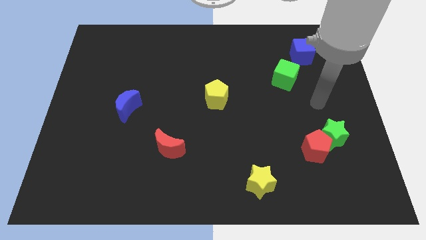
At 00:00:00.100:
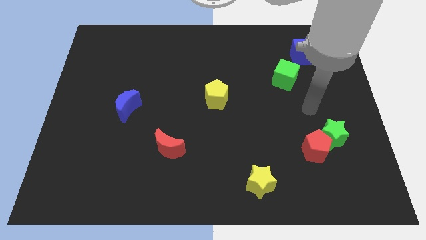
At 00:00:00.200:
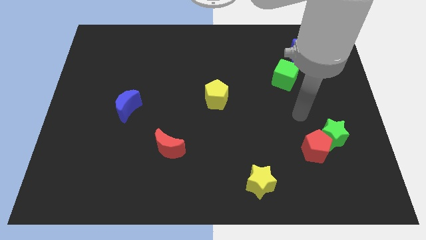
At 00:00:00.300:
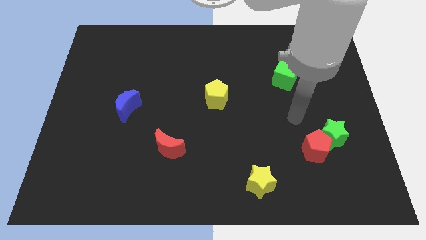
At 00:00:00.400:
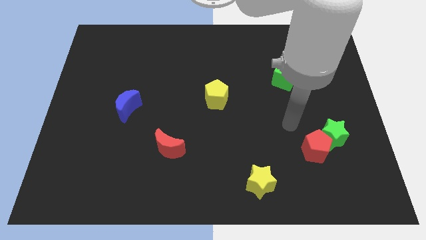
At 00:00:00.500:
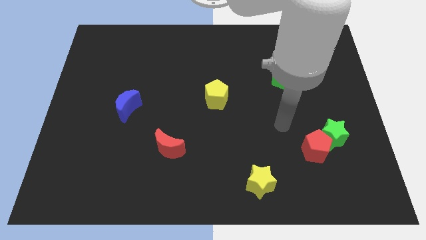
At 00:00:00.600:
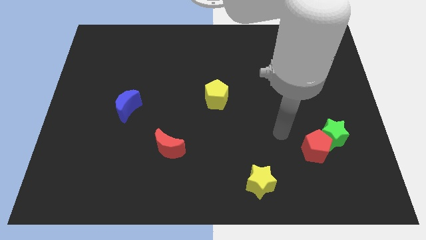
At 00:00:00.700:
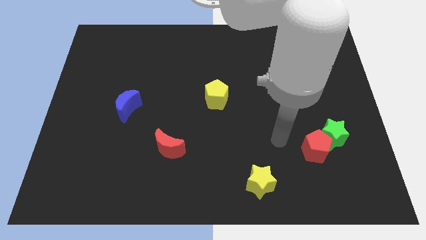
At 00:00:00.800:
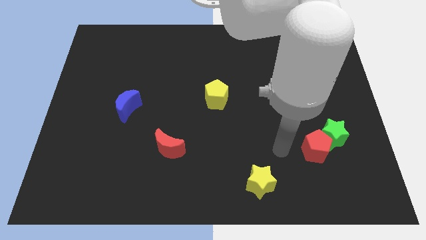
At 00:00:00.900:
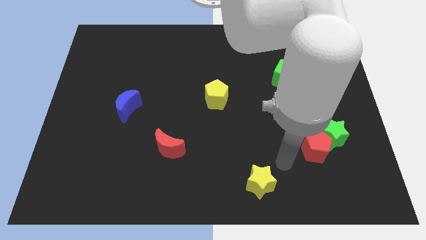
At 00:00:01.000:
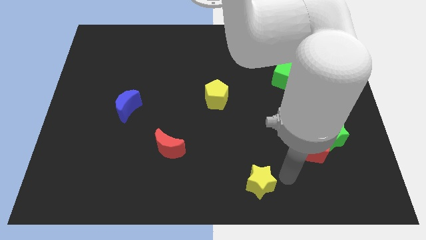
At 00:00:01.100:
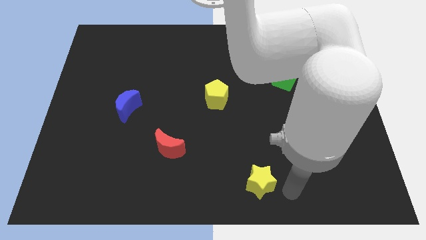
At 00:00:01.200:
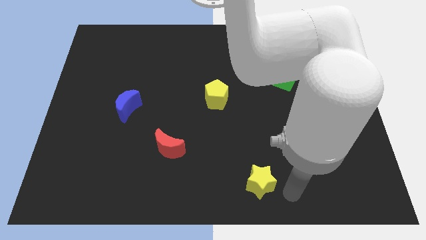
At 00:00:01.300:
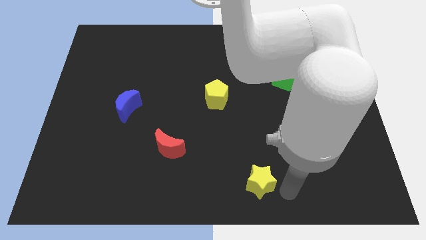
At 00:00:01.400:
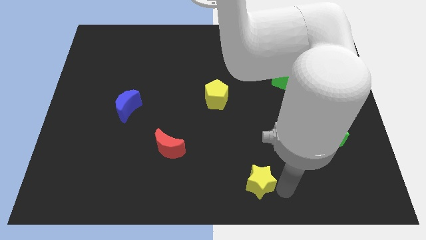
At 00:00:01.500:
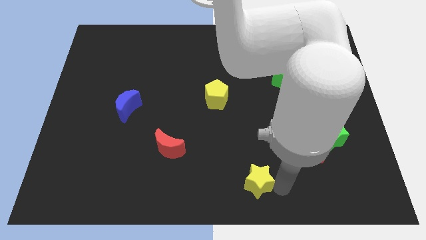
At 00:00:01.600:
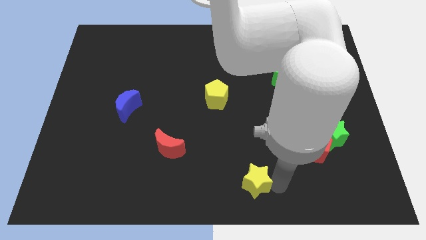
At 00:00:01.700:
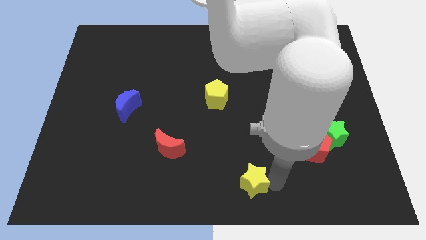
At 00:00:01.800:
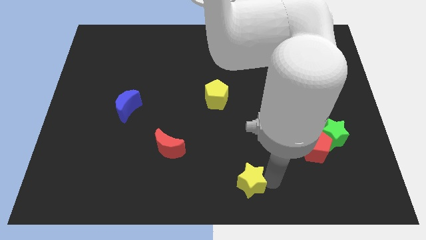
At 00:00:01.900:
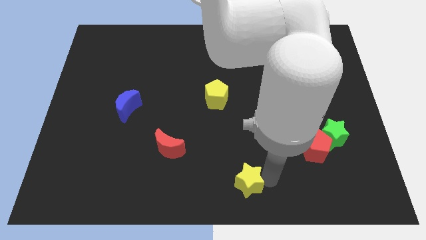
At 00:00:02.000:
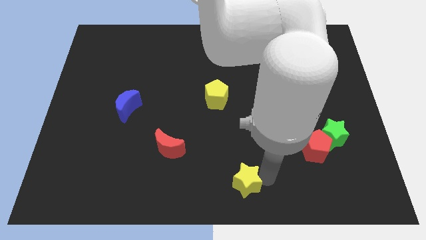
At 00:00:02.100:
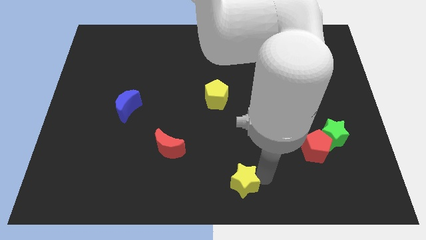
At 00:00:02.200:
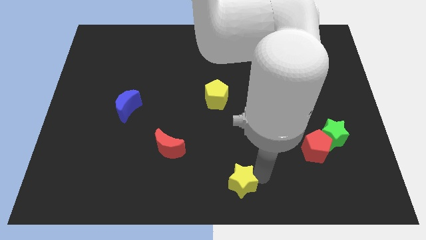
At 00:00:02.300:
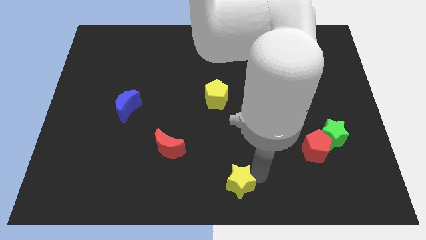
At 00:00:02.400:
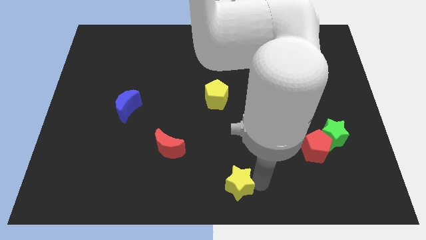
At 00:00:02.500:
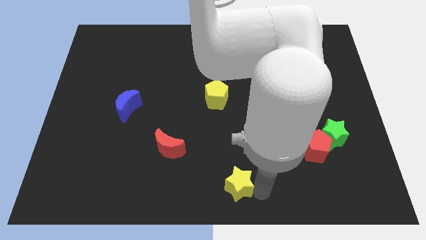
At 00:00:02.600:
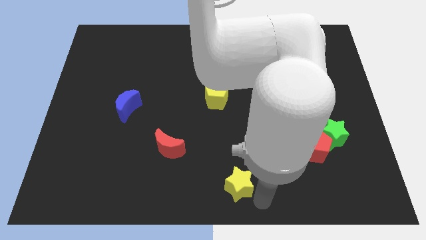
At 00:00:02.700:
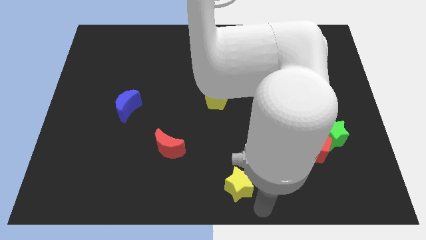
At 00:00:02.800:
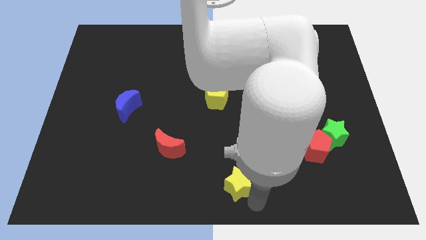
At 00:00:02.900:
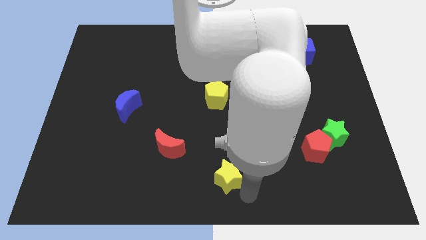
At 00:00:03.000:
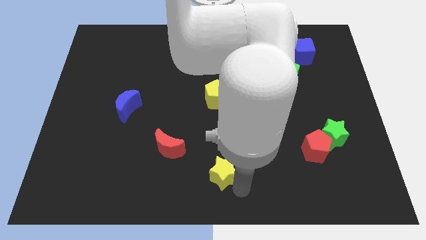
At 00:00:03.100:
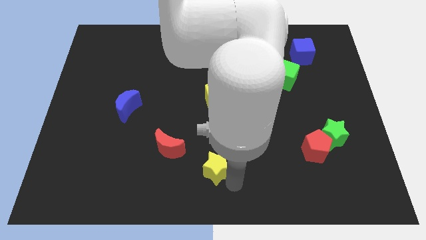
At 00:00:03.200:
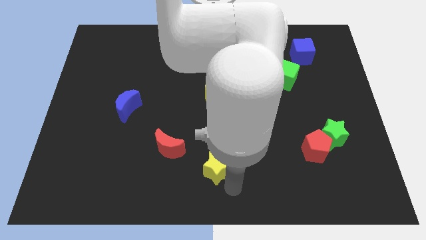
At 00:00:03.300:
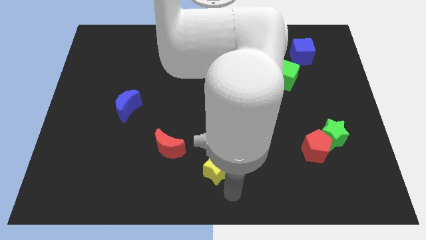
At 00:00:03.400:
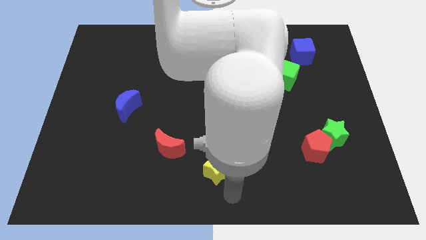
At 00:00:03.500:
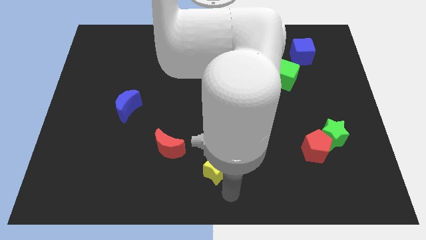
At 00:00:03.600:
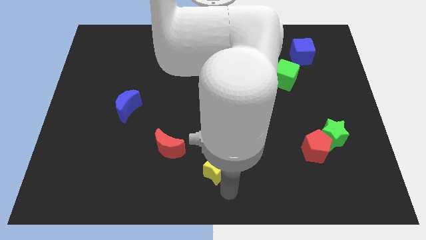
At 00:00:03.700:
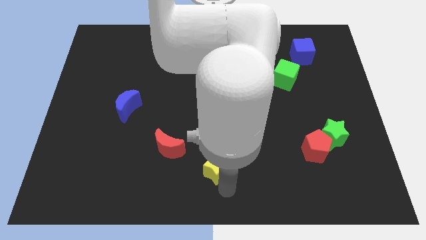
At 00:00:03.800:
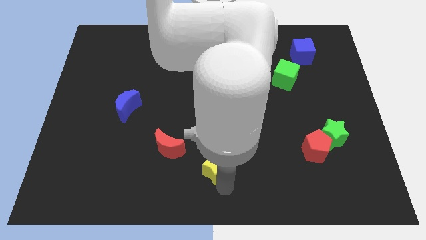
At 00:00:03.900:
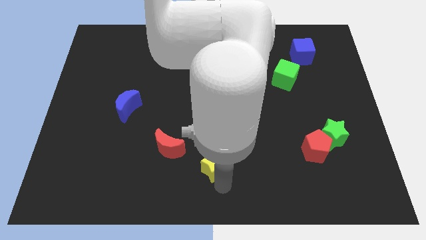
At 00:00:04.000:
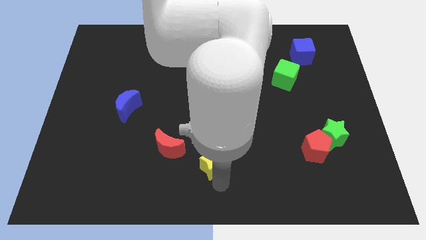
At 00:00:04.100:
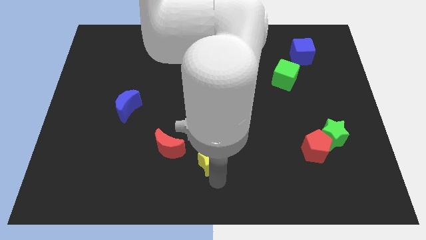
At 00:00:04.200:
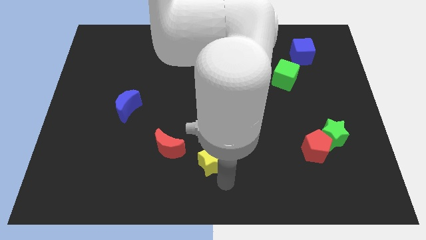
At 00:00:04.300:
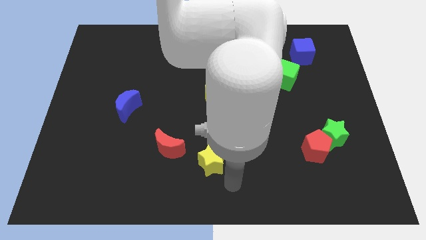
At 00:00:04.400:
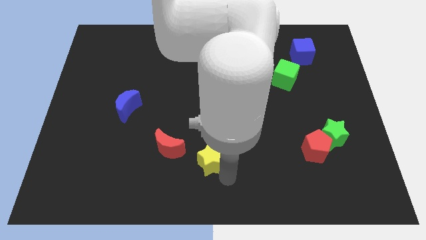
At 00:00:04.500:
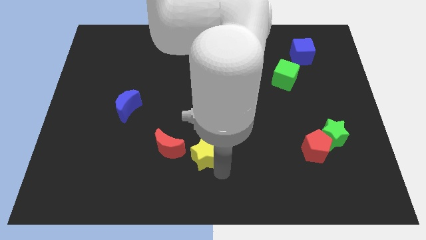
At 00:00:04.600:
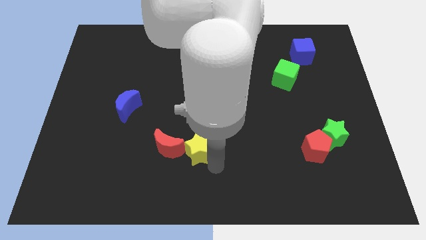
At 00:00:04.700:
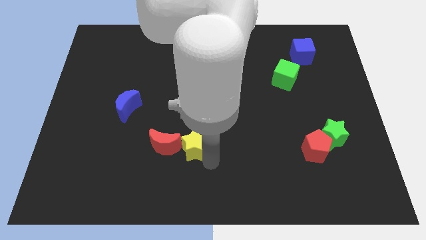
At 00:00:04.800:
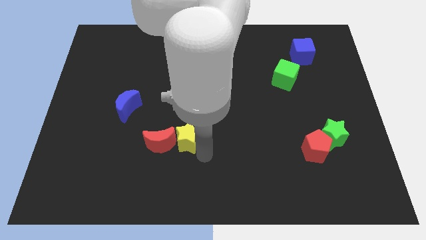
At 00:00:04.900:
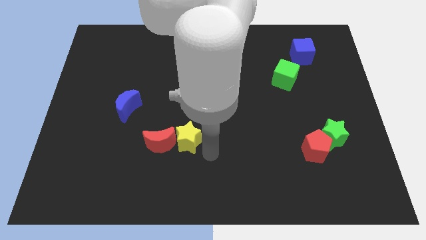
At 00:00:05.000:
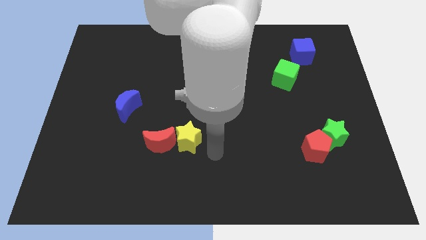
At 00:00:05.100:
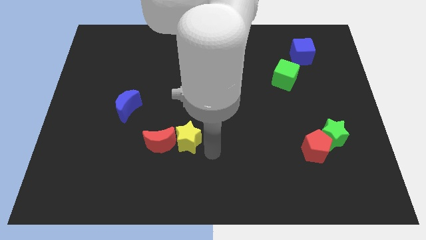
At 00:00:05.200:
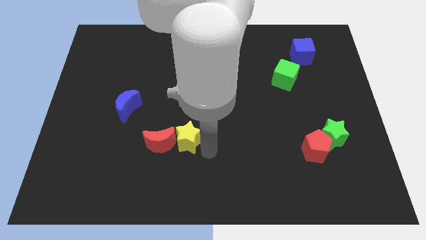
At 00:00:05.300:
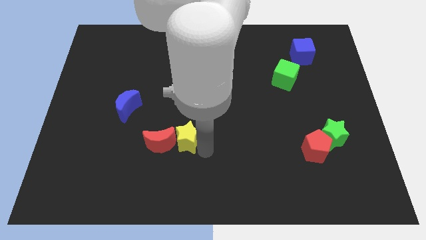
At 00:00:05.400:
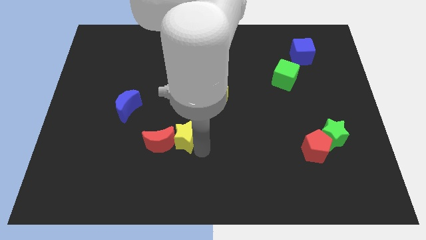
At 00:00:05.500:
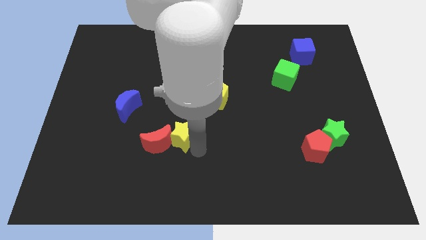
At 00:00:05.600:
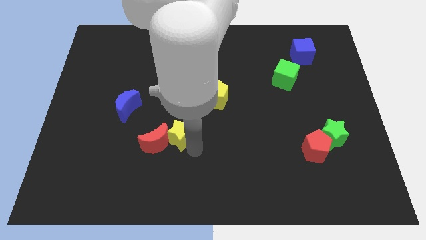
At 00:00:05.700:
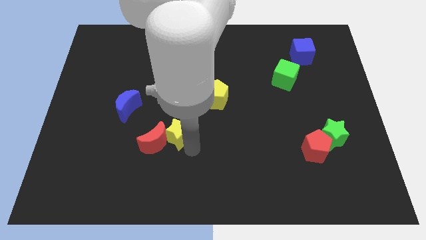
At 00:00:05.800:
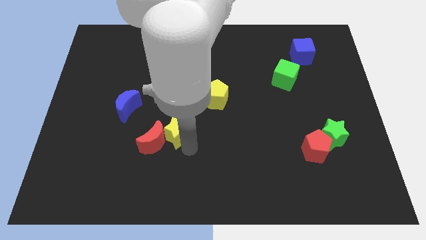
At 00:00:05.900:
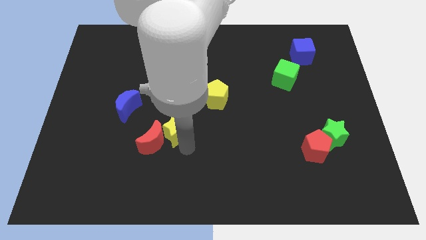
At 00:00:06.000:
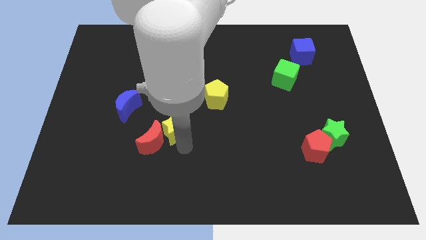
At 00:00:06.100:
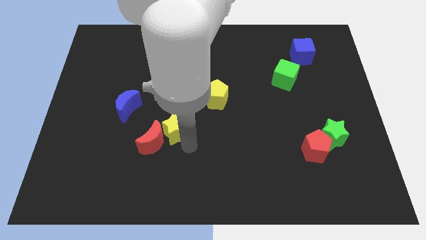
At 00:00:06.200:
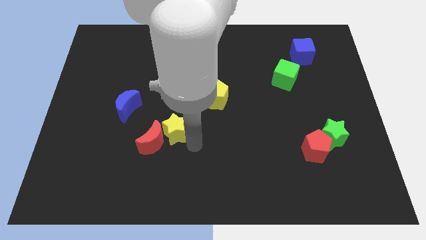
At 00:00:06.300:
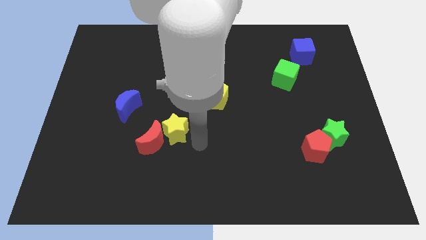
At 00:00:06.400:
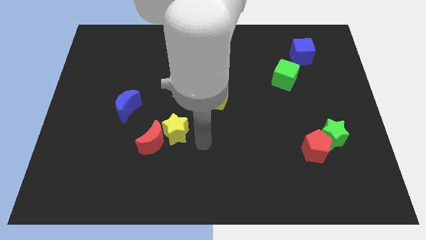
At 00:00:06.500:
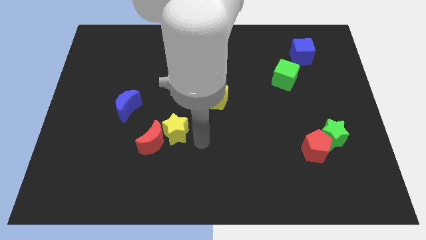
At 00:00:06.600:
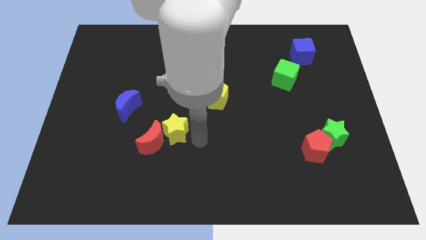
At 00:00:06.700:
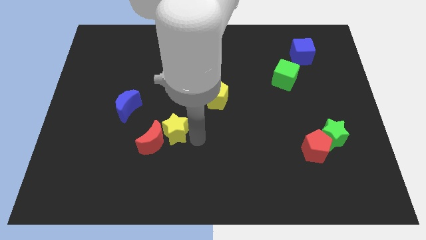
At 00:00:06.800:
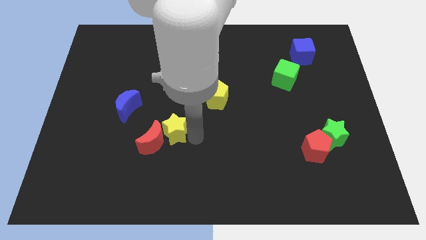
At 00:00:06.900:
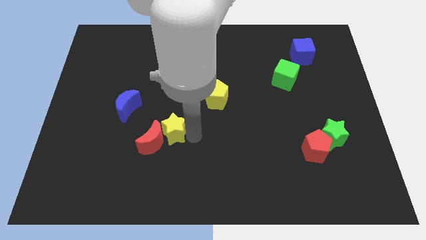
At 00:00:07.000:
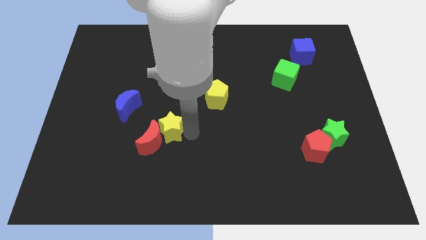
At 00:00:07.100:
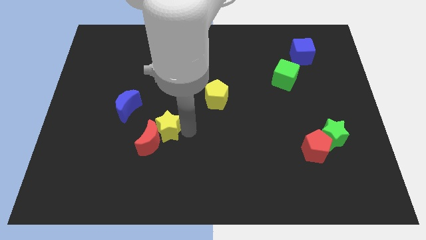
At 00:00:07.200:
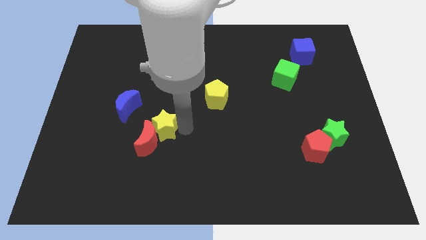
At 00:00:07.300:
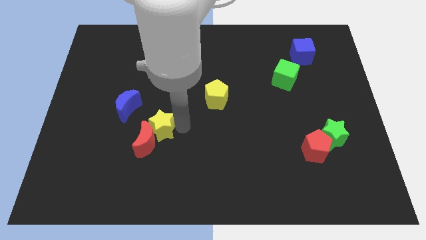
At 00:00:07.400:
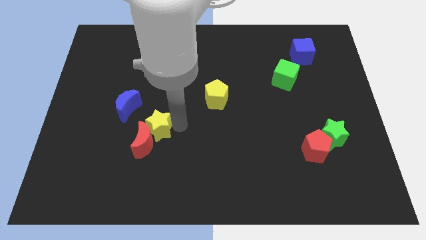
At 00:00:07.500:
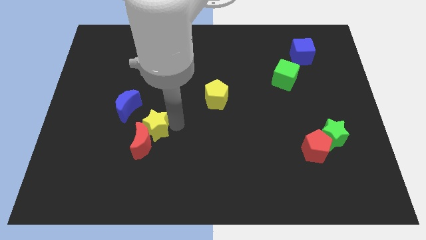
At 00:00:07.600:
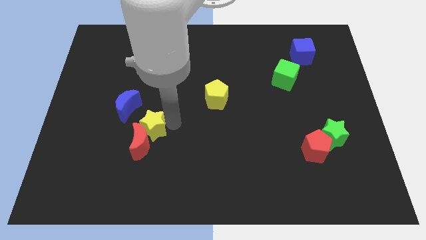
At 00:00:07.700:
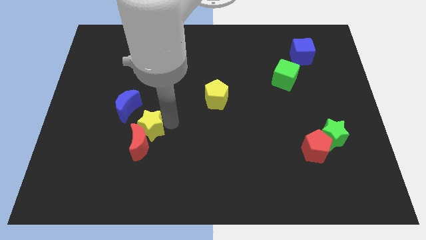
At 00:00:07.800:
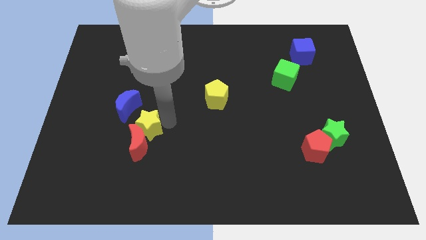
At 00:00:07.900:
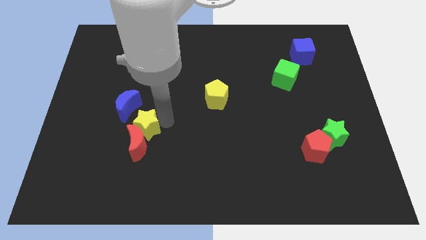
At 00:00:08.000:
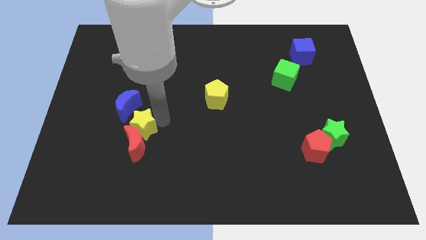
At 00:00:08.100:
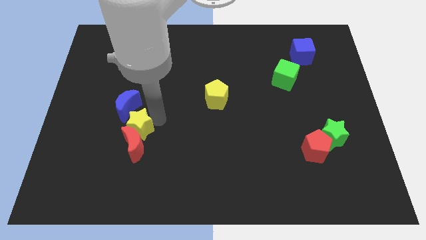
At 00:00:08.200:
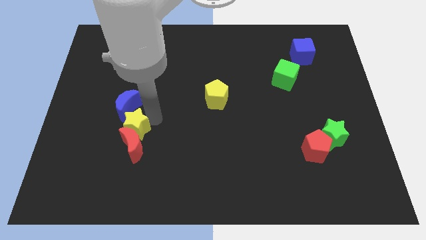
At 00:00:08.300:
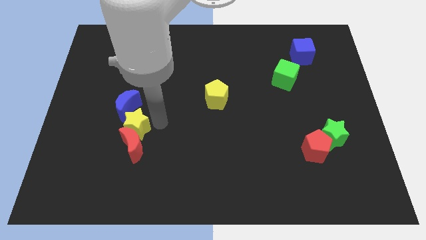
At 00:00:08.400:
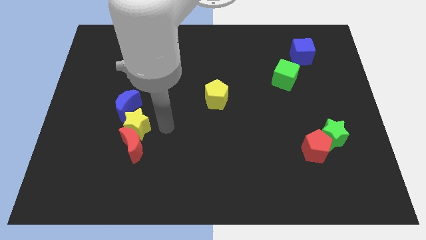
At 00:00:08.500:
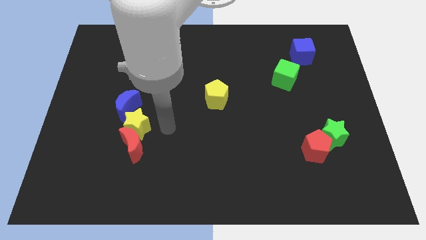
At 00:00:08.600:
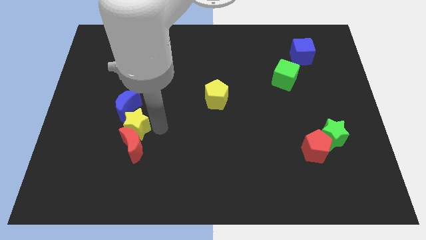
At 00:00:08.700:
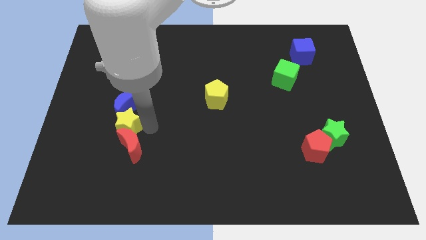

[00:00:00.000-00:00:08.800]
slide the yellow star to the bottom left side of the blue moon
